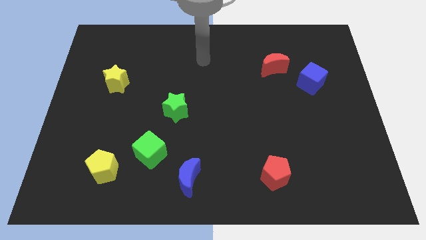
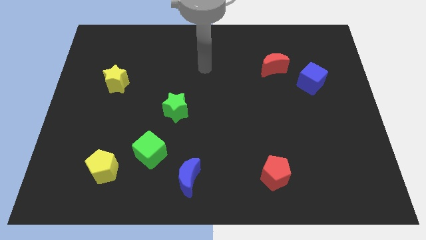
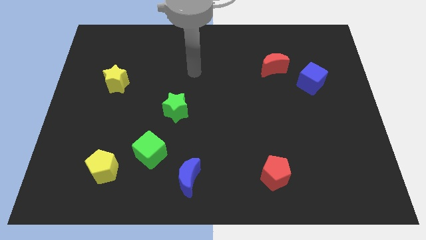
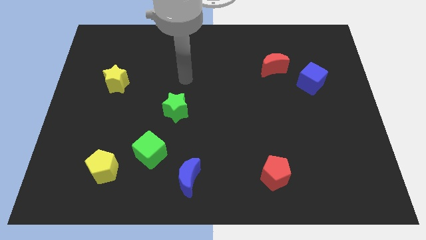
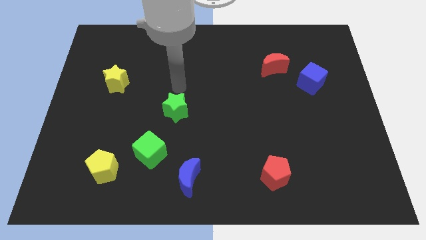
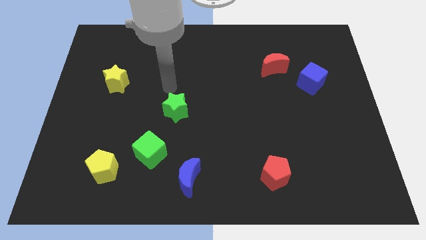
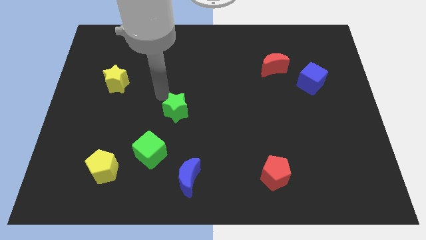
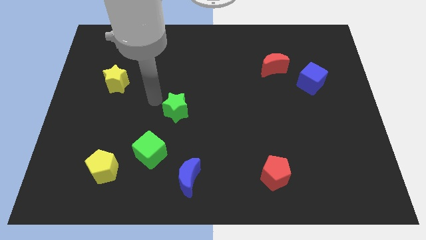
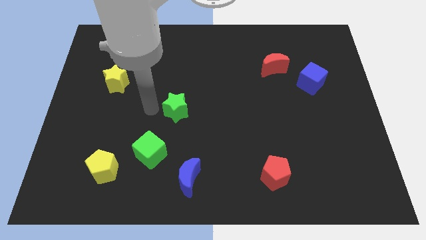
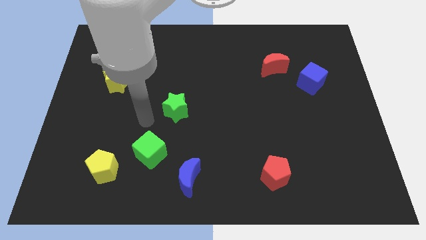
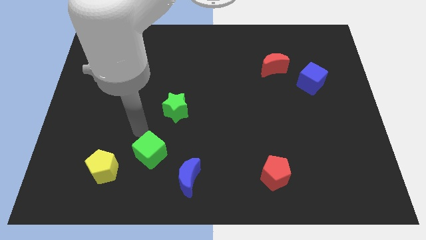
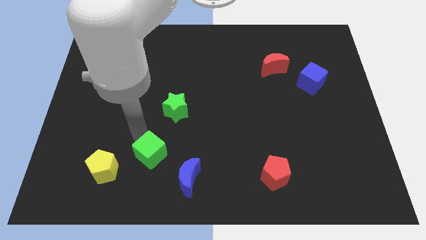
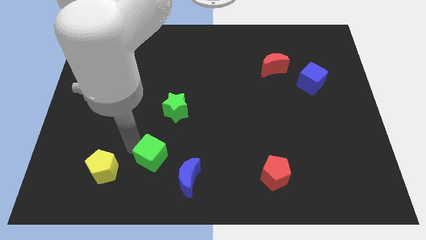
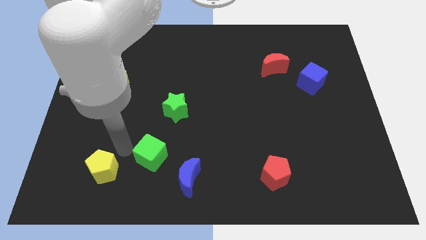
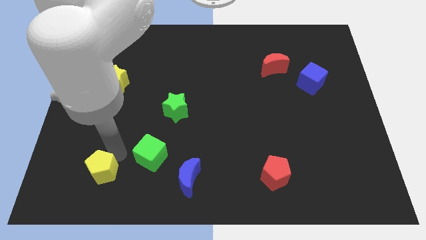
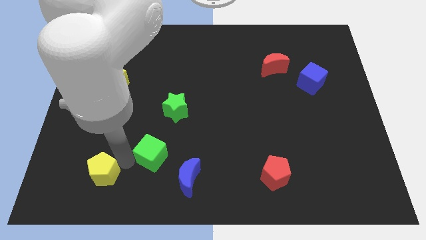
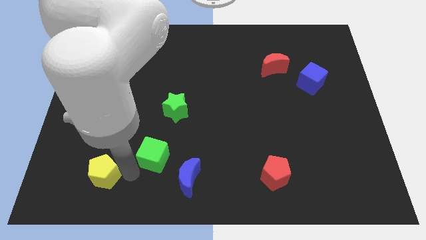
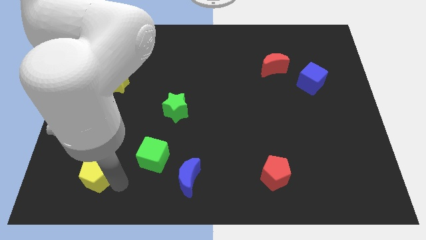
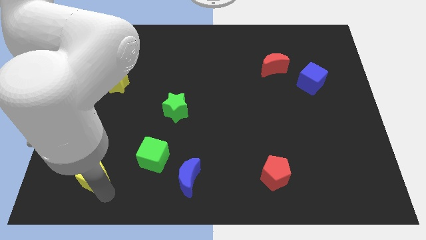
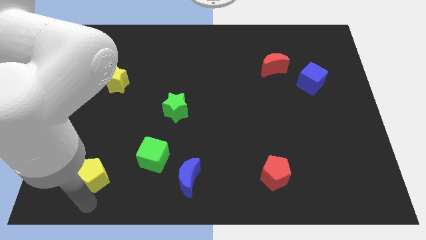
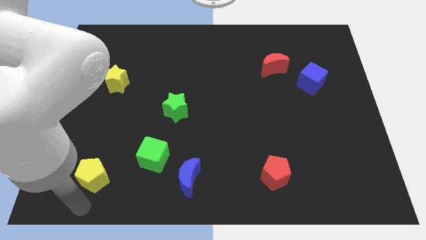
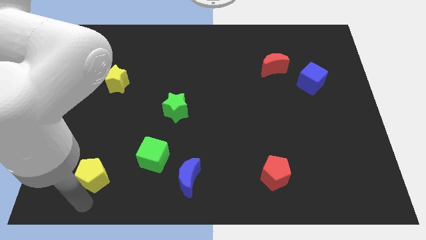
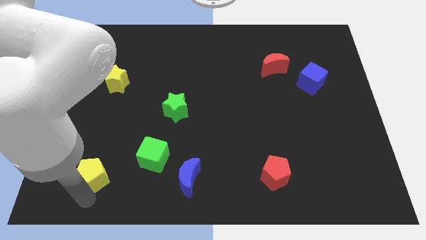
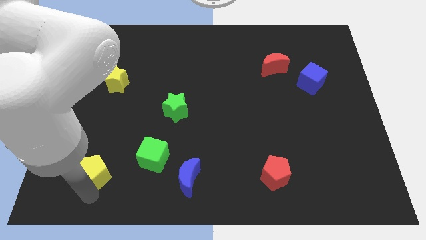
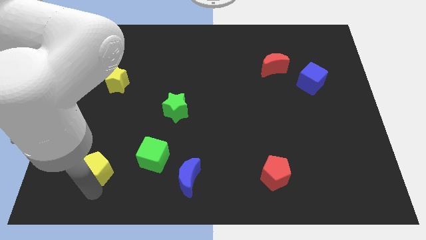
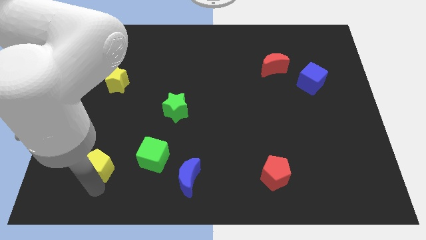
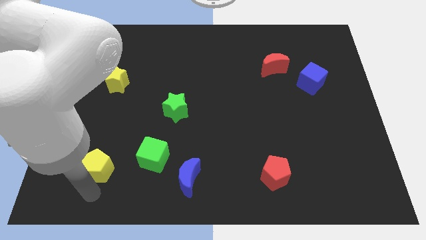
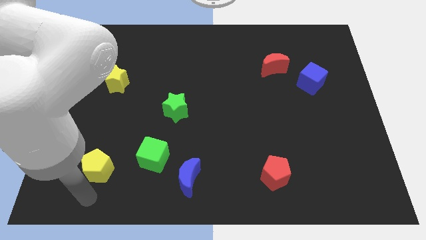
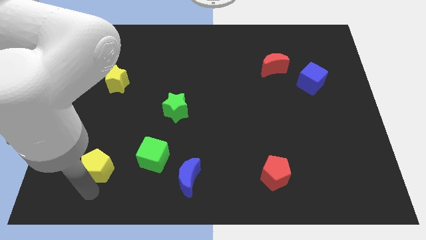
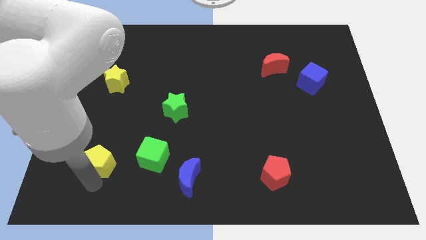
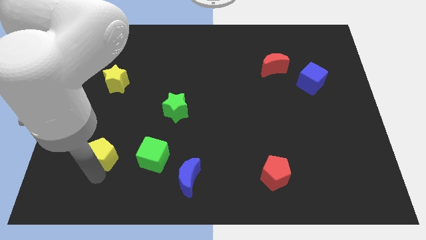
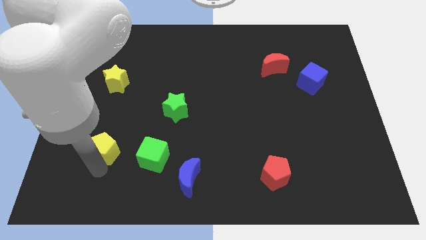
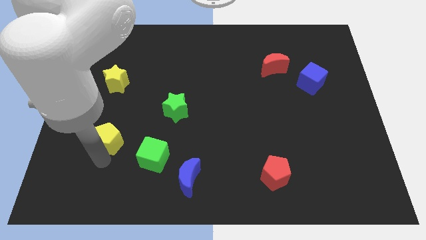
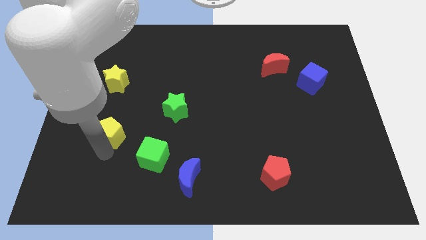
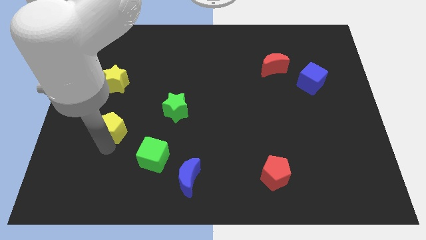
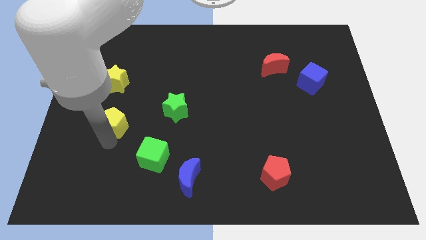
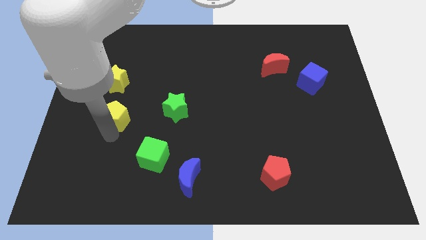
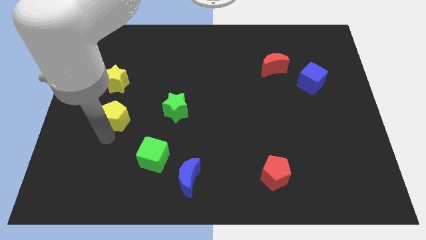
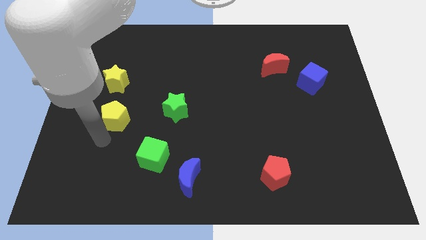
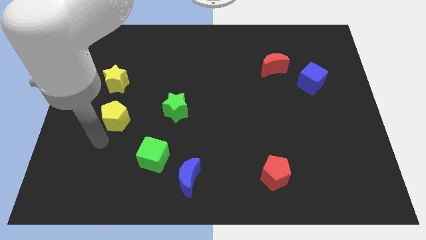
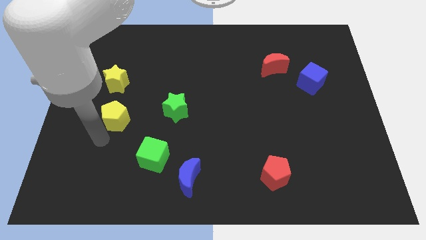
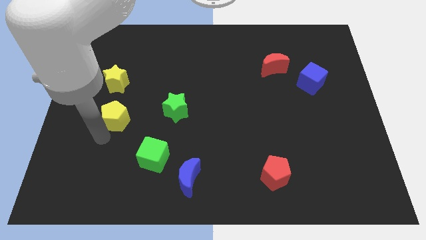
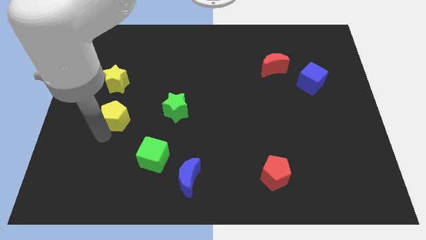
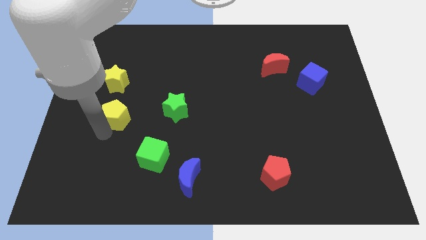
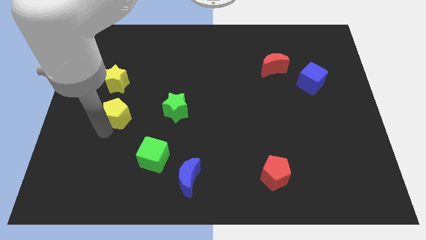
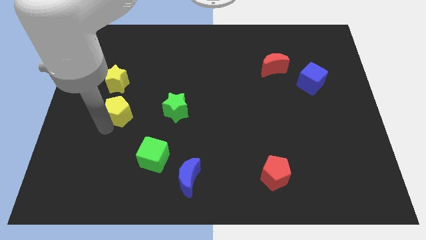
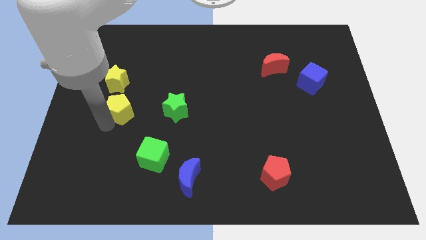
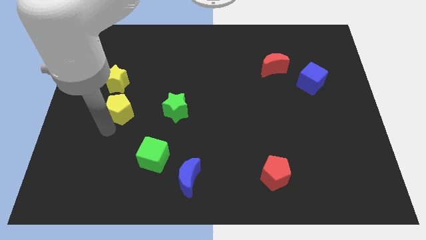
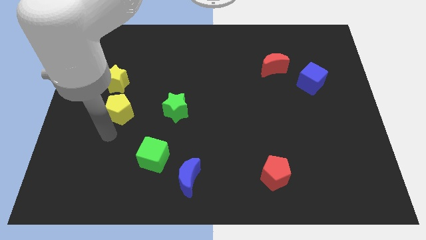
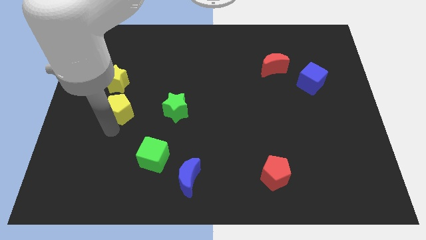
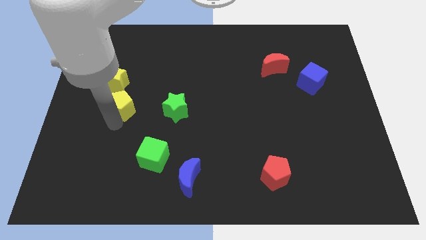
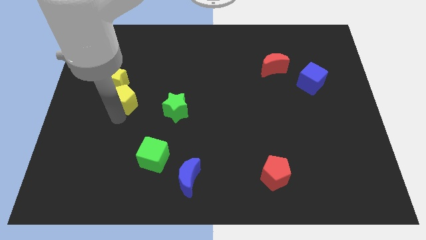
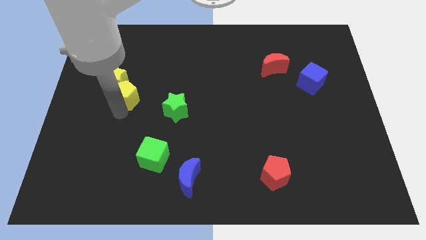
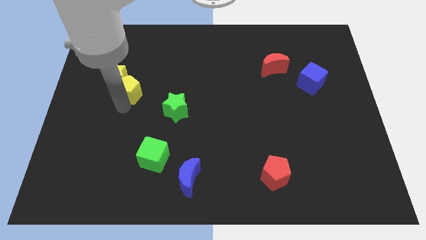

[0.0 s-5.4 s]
move the yellow pentagon upwards

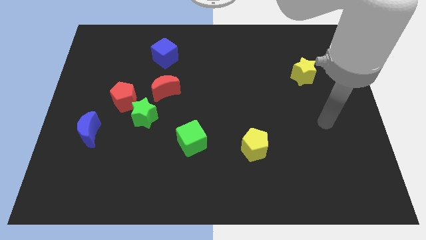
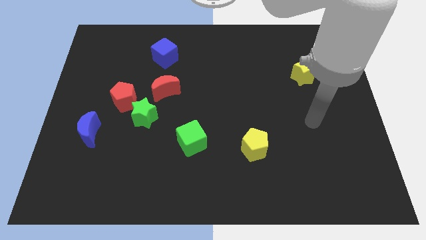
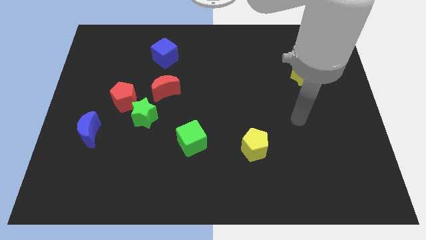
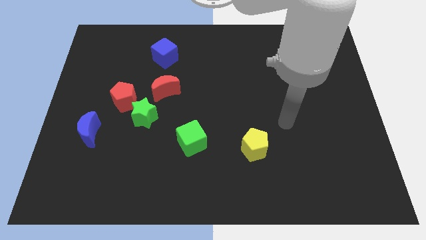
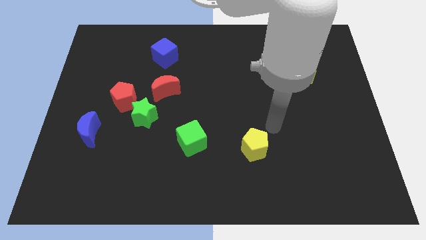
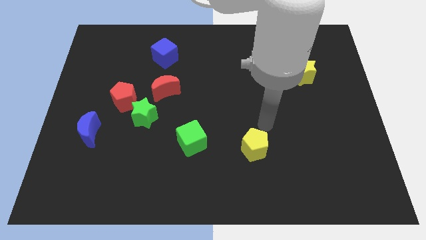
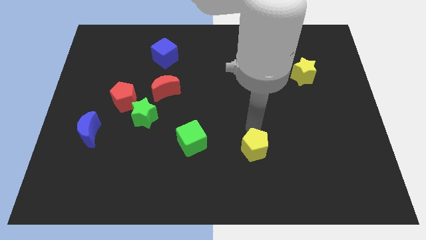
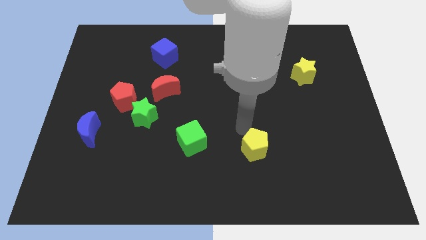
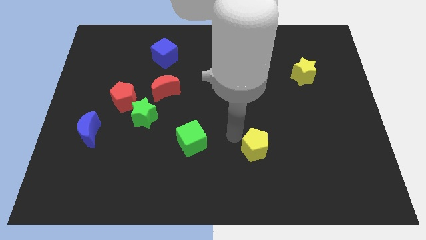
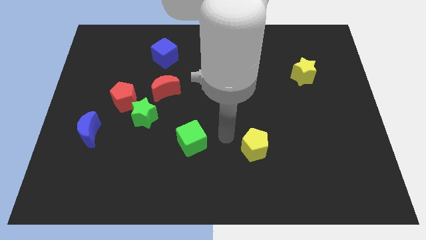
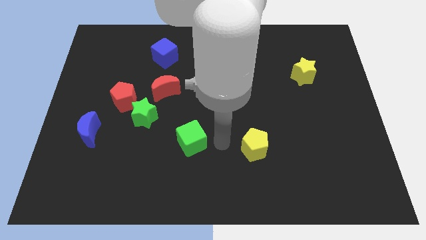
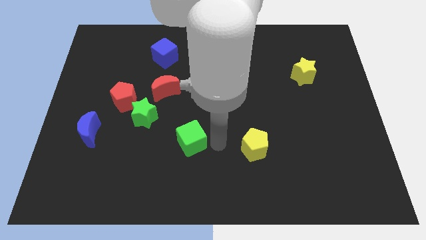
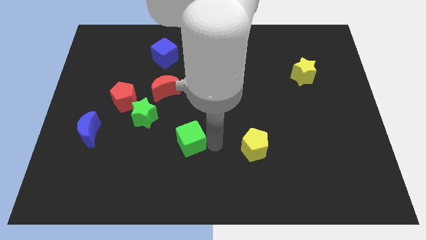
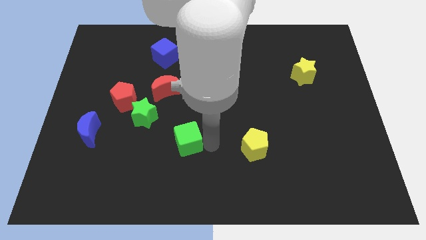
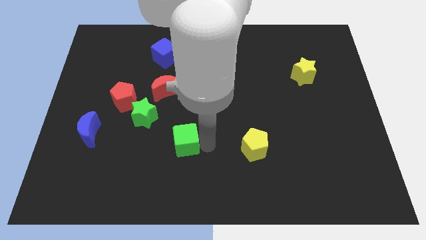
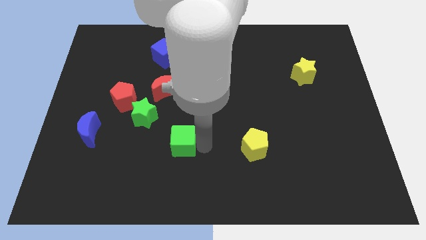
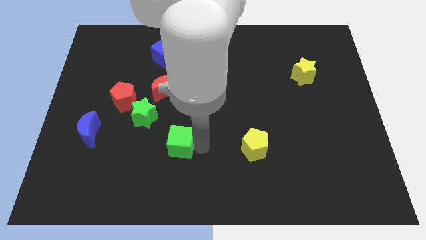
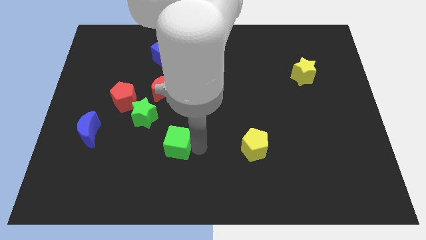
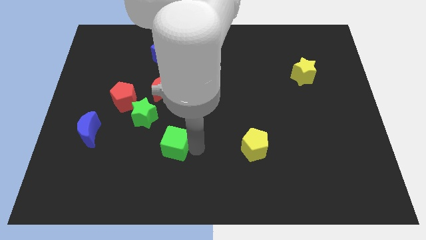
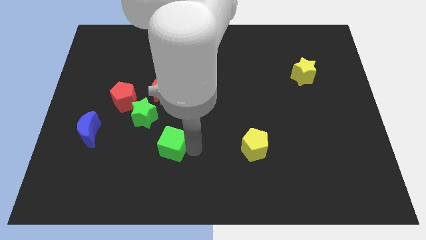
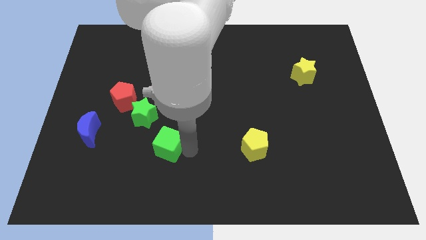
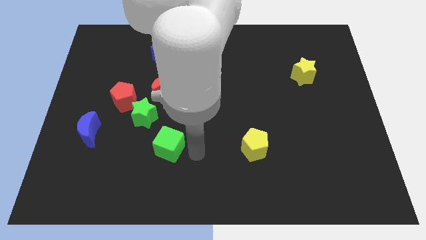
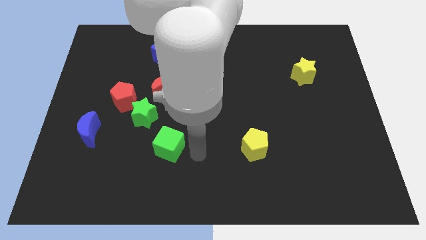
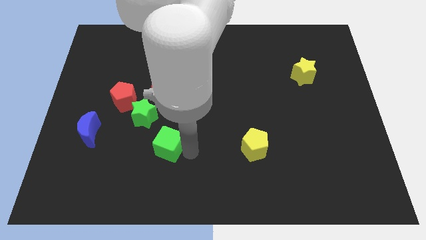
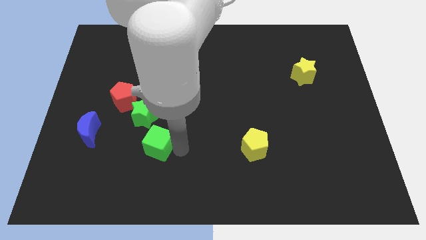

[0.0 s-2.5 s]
push the green cube left somewhat

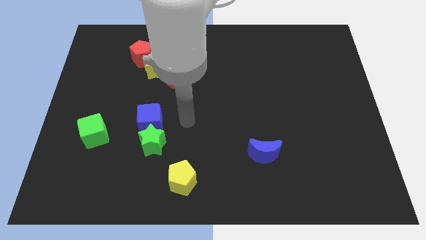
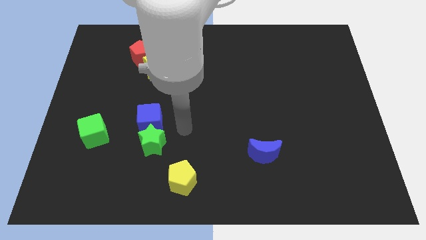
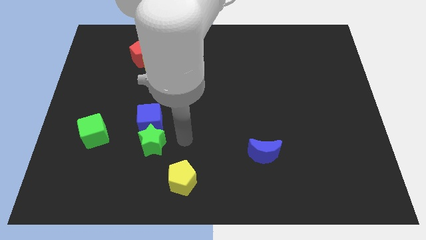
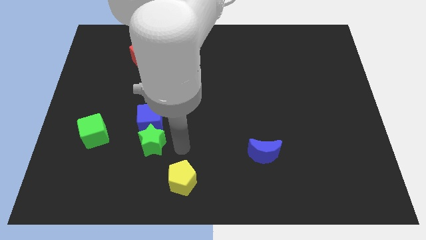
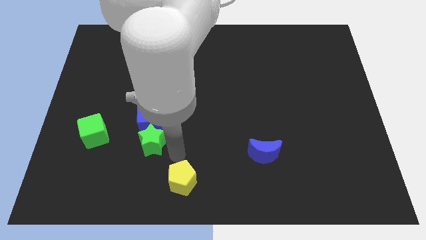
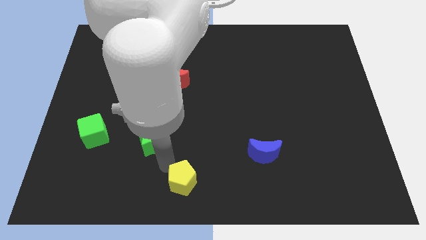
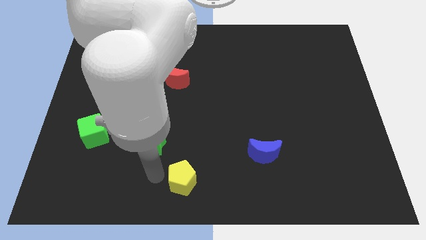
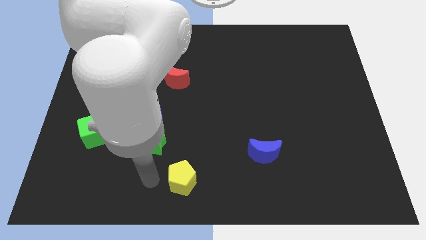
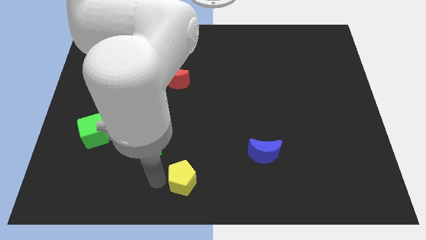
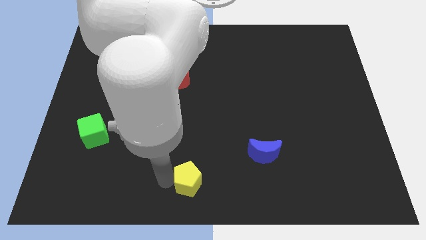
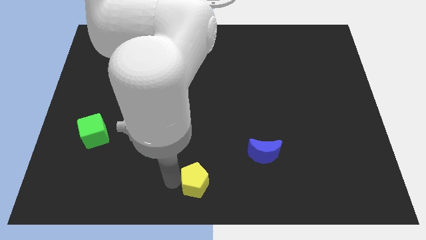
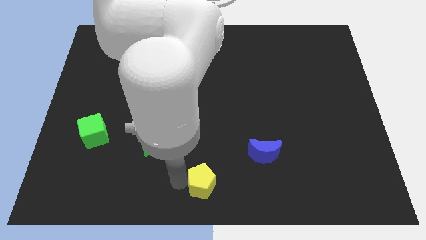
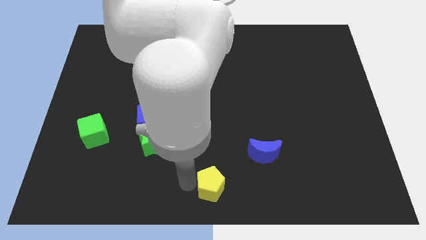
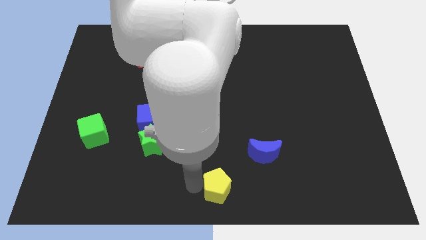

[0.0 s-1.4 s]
push the yellow pentagon right a little bit
